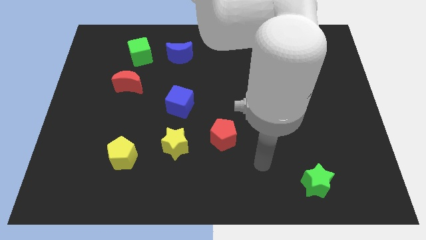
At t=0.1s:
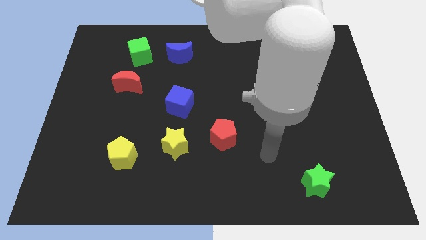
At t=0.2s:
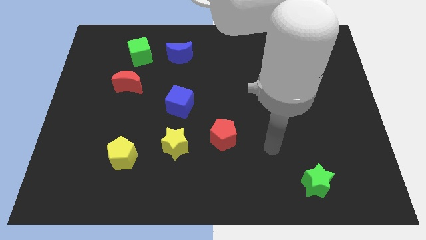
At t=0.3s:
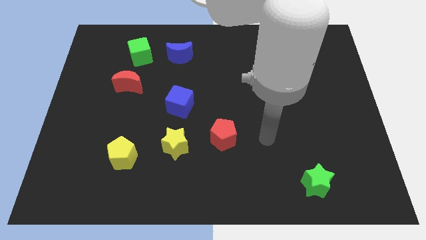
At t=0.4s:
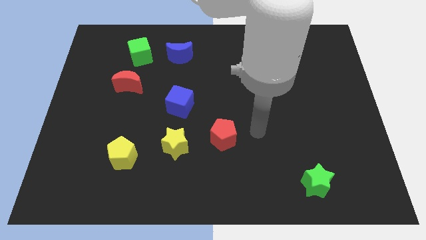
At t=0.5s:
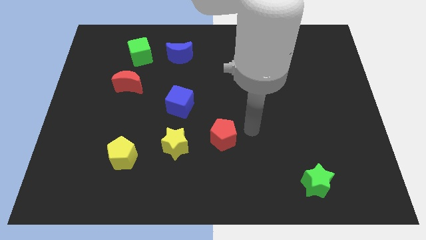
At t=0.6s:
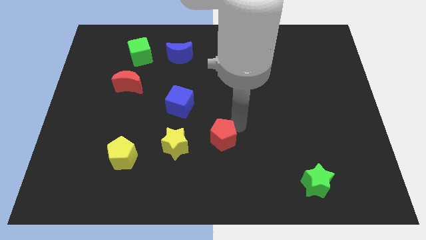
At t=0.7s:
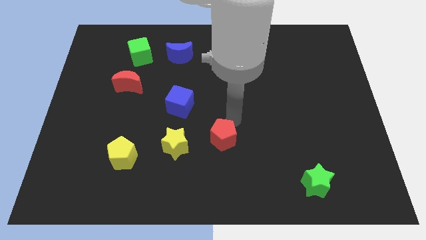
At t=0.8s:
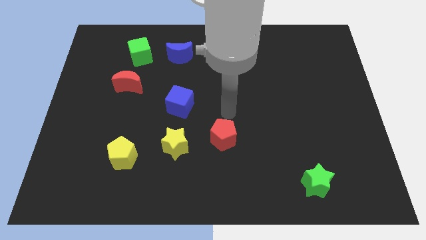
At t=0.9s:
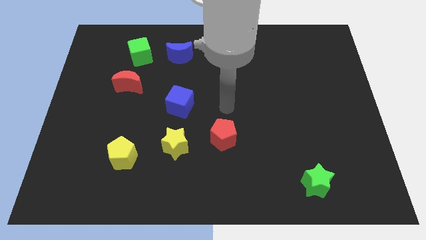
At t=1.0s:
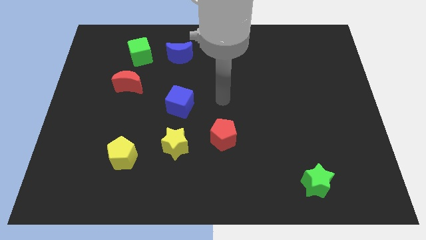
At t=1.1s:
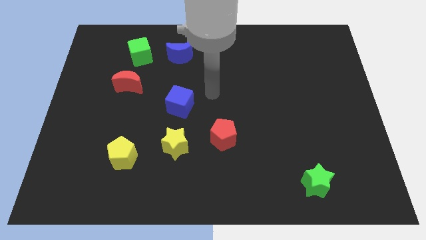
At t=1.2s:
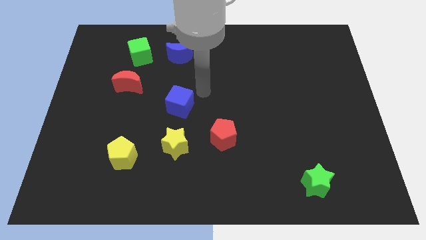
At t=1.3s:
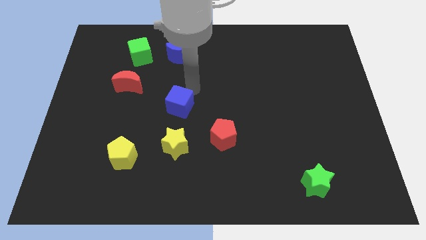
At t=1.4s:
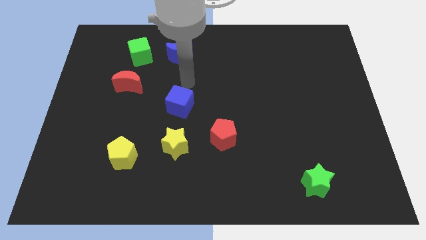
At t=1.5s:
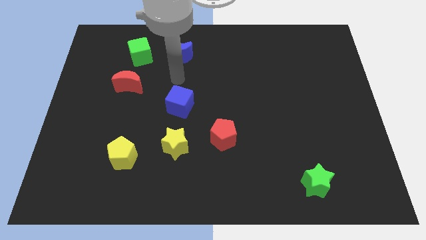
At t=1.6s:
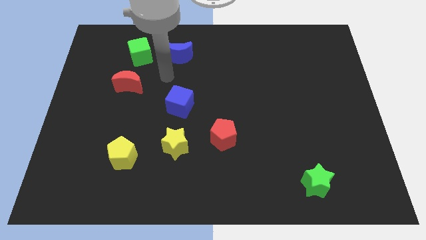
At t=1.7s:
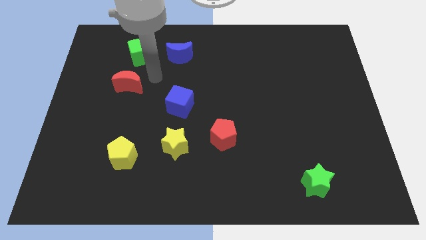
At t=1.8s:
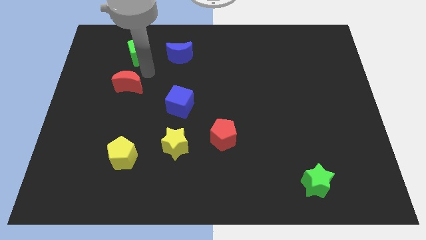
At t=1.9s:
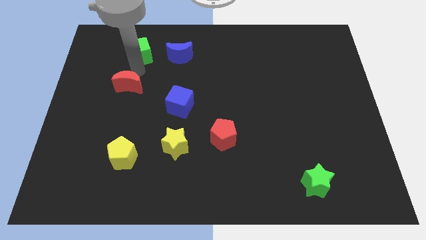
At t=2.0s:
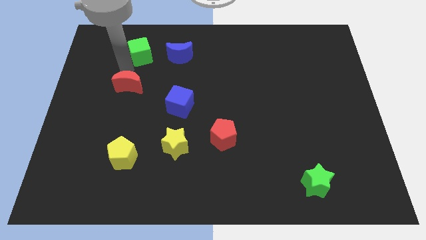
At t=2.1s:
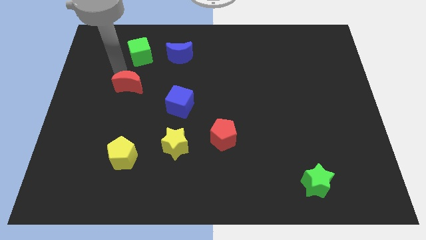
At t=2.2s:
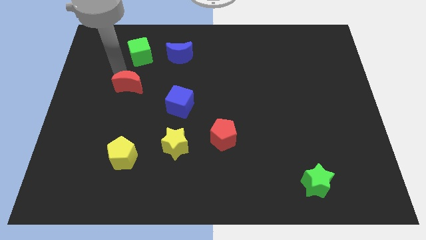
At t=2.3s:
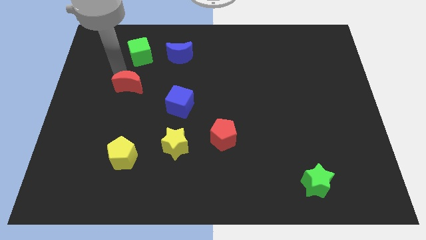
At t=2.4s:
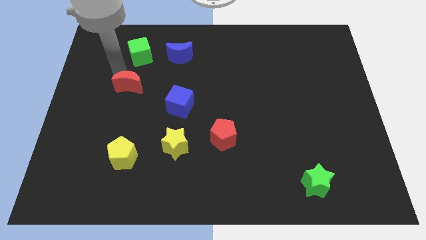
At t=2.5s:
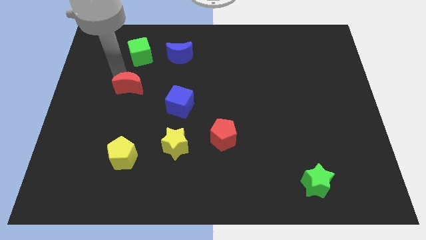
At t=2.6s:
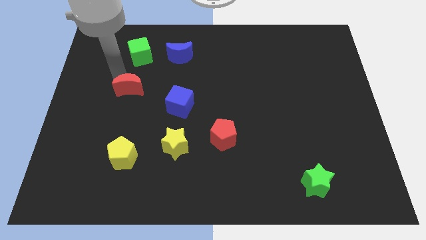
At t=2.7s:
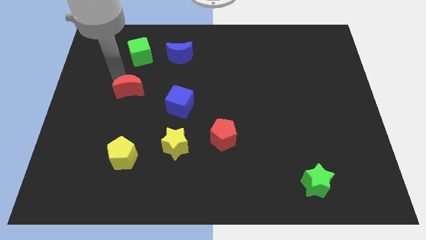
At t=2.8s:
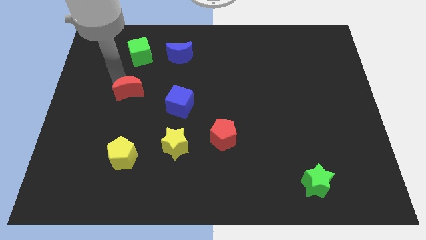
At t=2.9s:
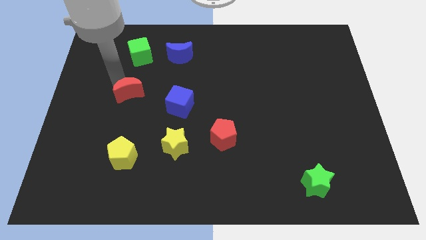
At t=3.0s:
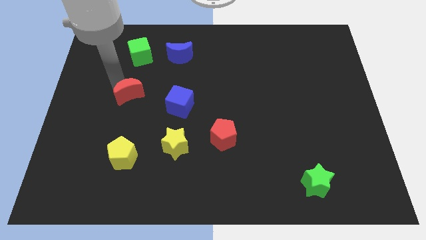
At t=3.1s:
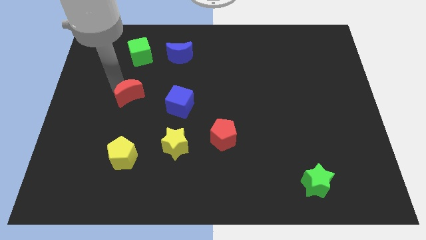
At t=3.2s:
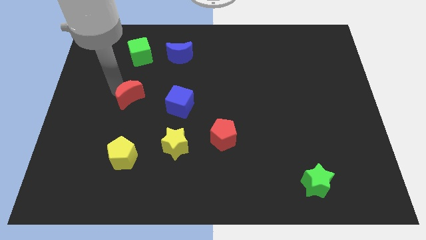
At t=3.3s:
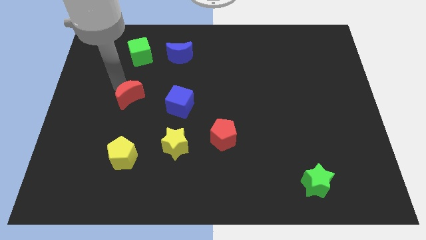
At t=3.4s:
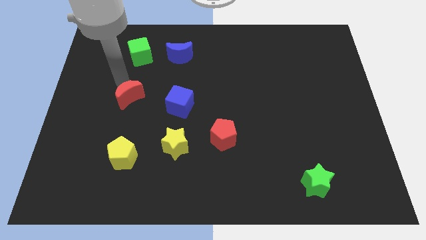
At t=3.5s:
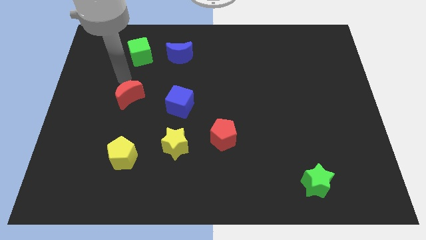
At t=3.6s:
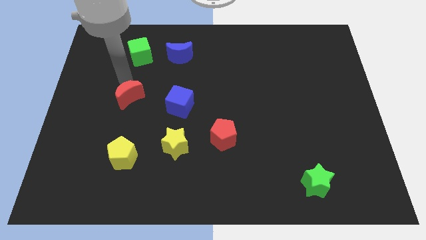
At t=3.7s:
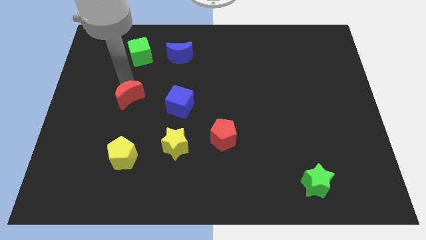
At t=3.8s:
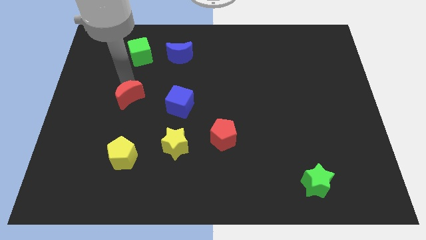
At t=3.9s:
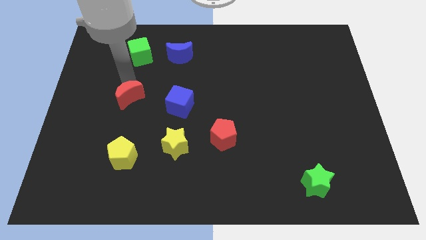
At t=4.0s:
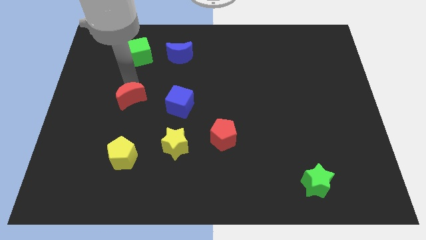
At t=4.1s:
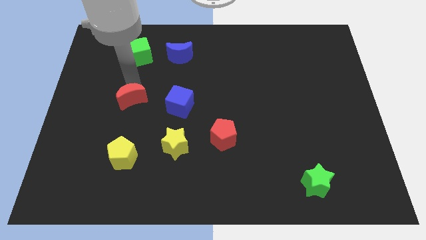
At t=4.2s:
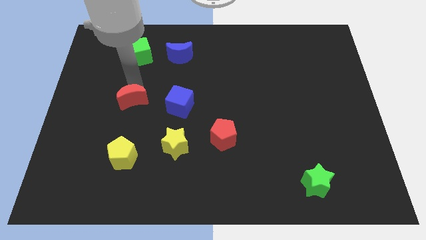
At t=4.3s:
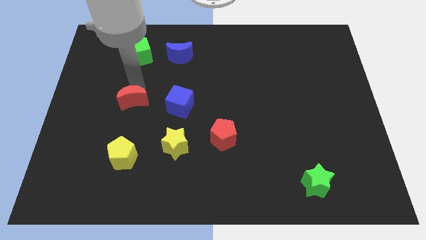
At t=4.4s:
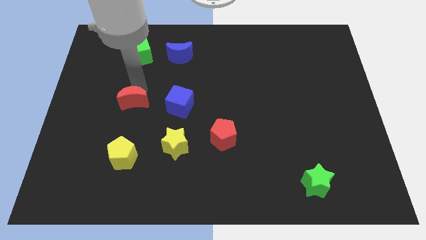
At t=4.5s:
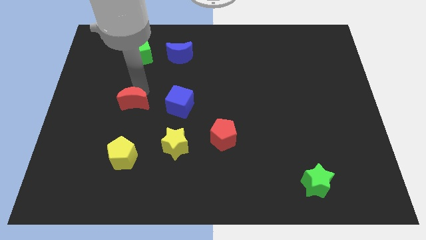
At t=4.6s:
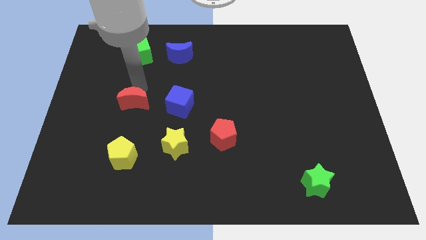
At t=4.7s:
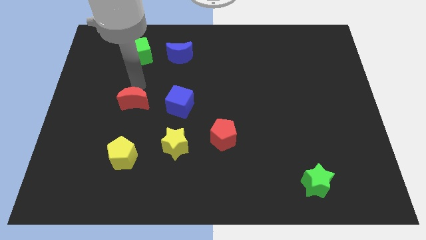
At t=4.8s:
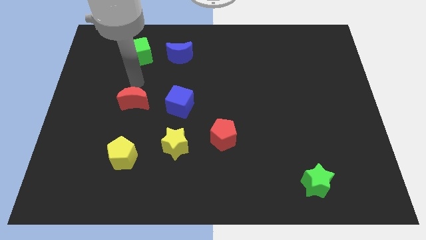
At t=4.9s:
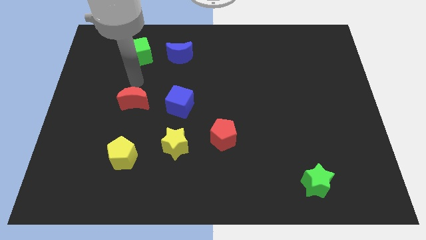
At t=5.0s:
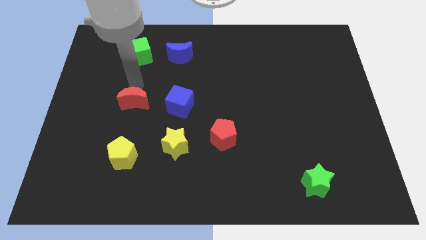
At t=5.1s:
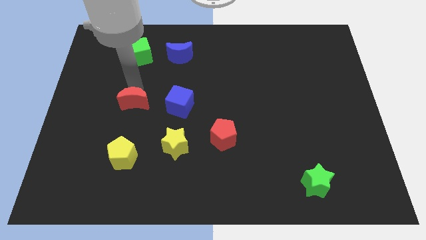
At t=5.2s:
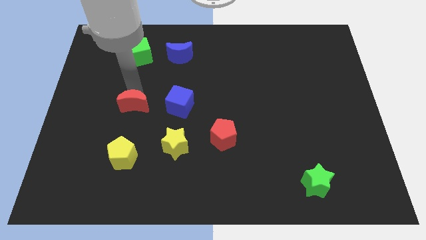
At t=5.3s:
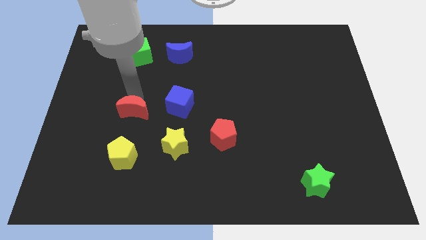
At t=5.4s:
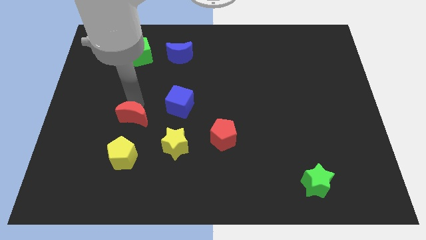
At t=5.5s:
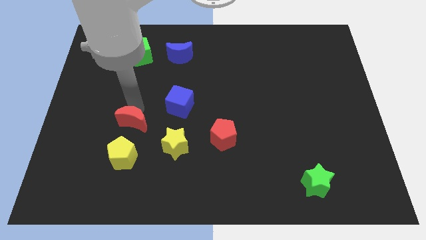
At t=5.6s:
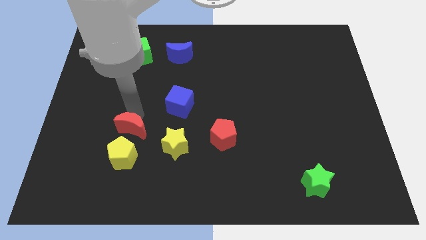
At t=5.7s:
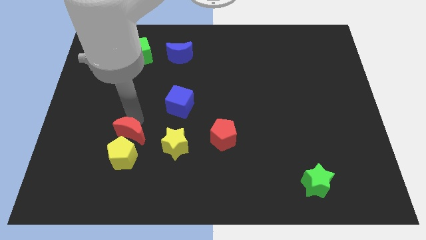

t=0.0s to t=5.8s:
slide the red moon towards the yellow pentagon

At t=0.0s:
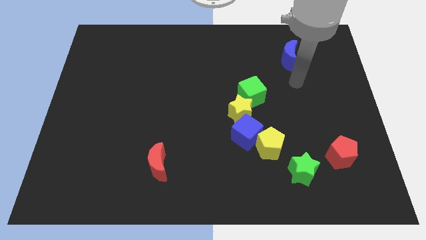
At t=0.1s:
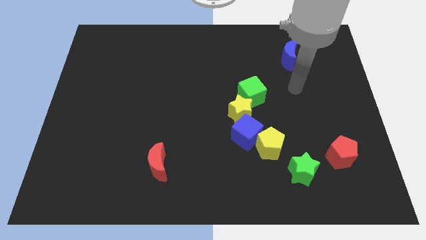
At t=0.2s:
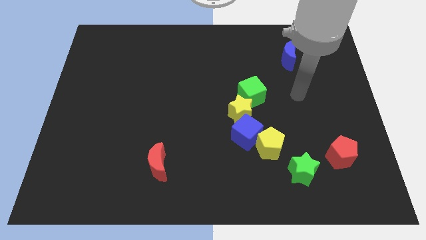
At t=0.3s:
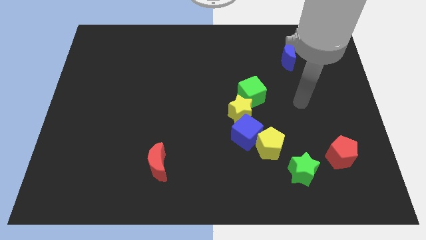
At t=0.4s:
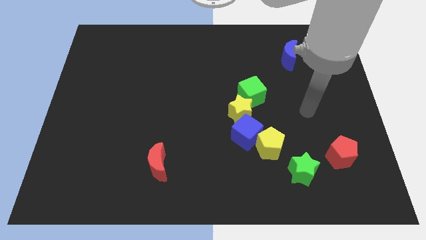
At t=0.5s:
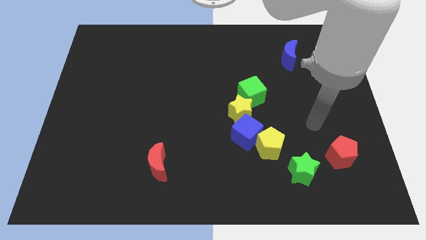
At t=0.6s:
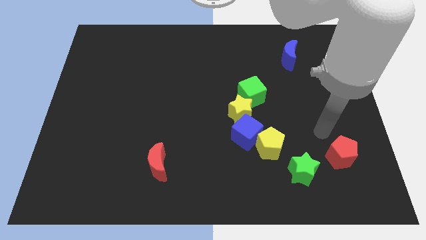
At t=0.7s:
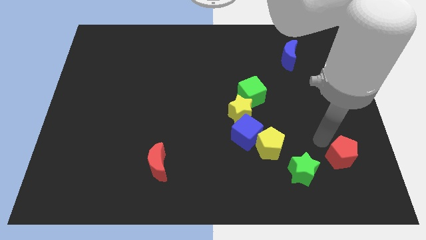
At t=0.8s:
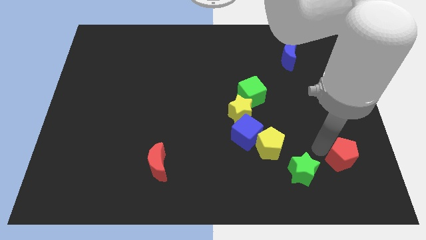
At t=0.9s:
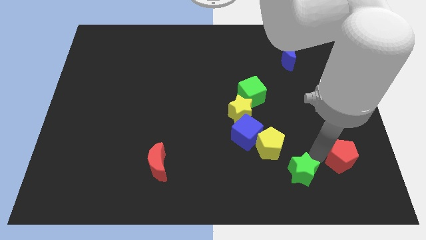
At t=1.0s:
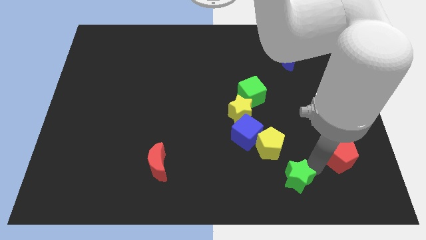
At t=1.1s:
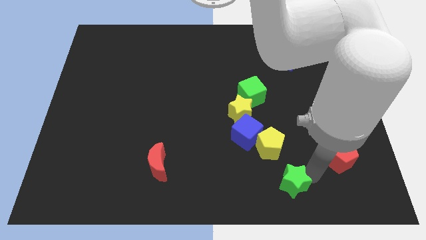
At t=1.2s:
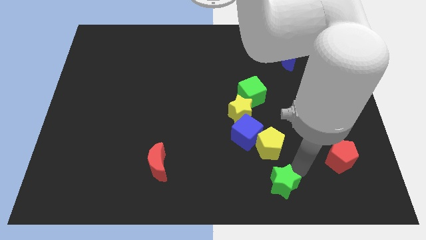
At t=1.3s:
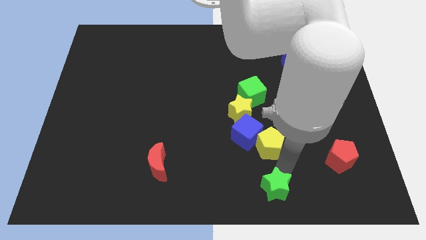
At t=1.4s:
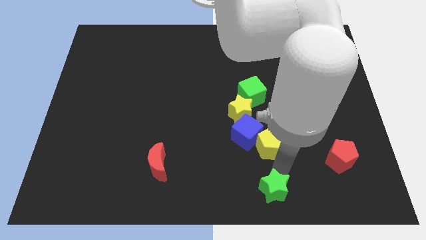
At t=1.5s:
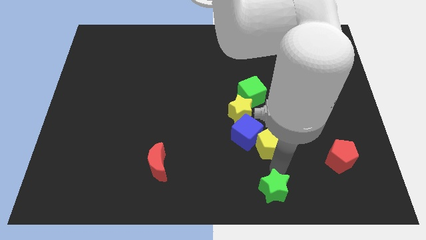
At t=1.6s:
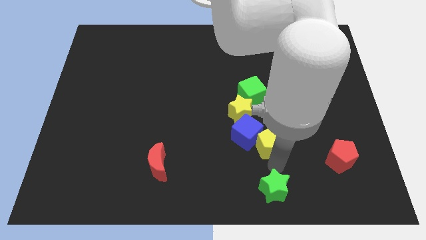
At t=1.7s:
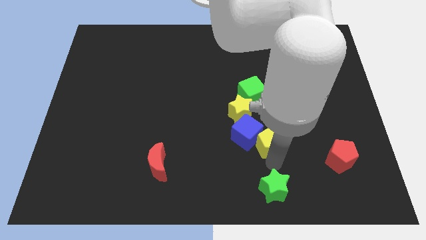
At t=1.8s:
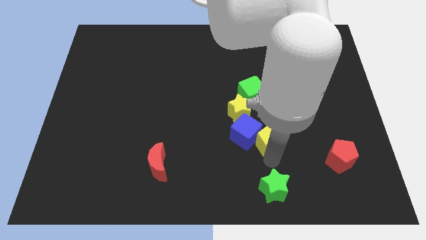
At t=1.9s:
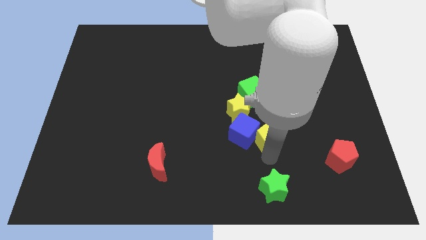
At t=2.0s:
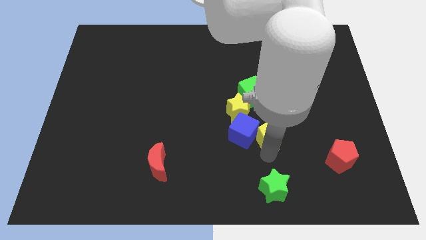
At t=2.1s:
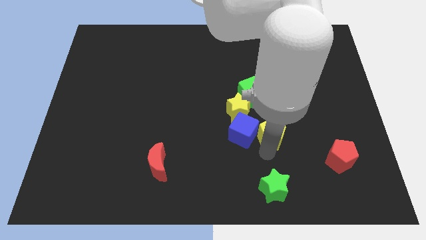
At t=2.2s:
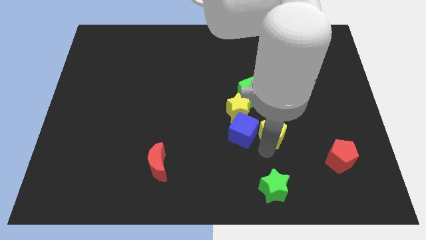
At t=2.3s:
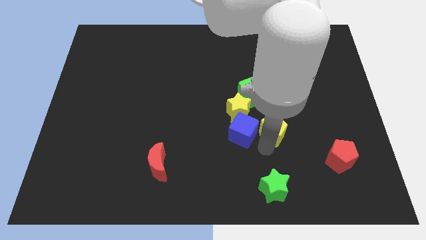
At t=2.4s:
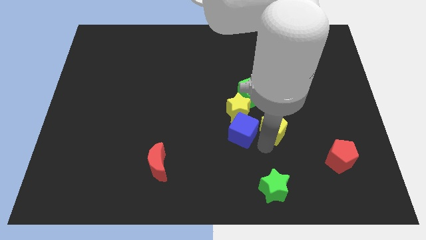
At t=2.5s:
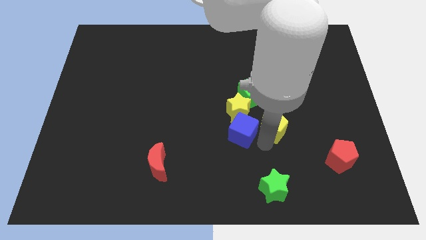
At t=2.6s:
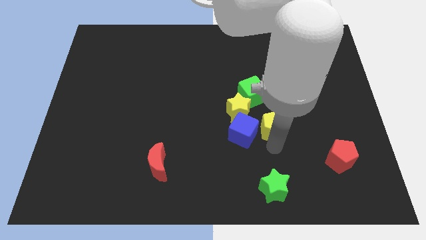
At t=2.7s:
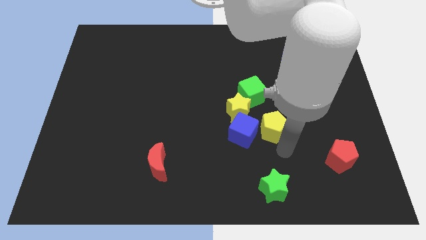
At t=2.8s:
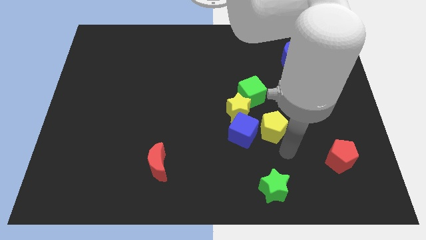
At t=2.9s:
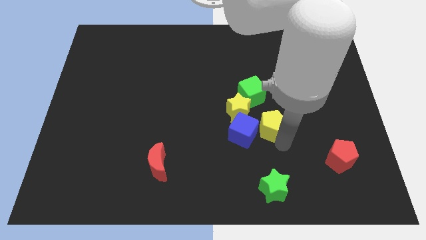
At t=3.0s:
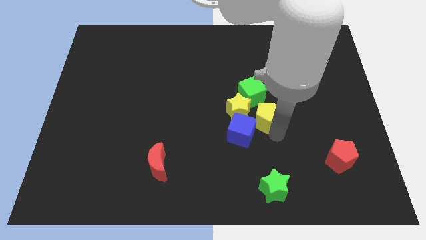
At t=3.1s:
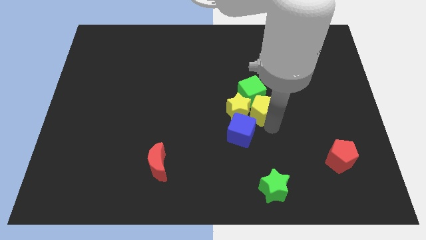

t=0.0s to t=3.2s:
move the yellow pentagon next to the green cube
